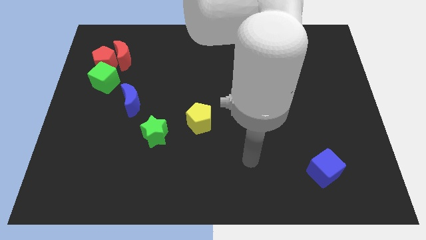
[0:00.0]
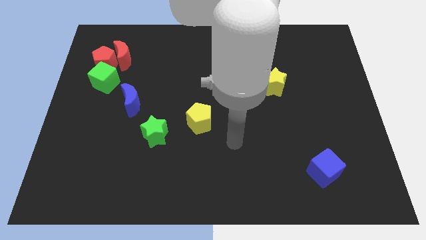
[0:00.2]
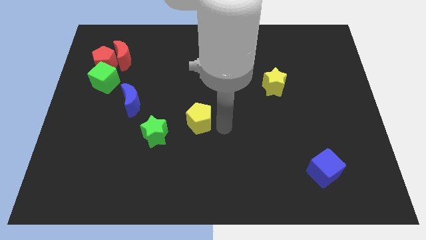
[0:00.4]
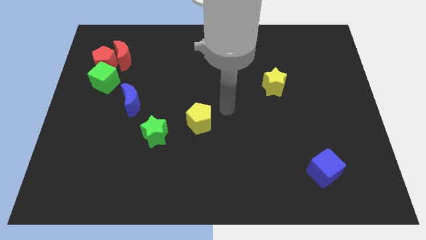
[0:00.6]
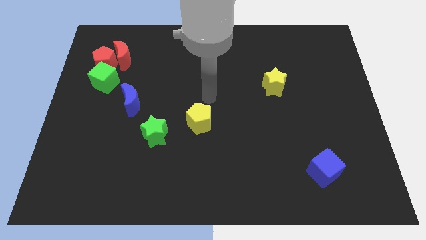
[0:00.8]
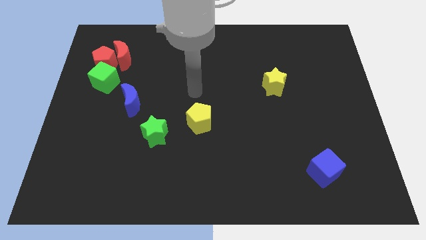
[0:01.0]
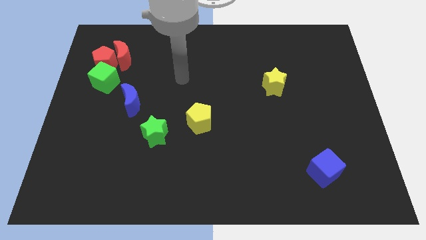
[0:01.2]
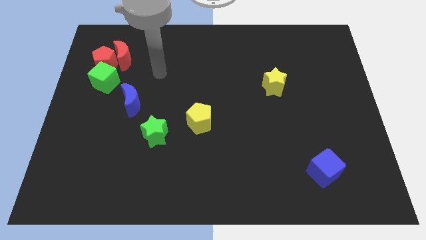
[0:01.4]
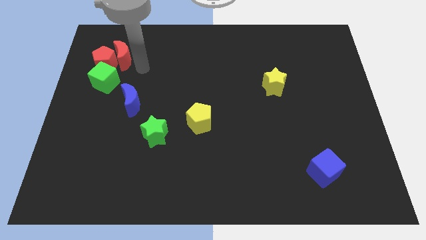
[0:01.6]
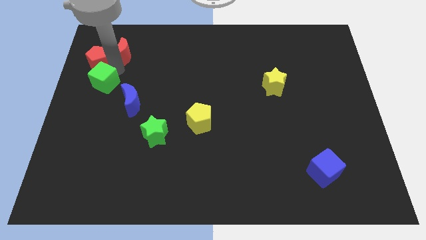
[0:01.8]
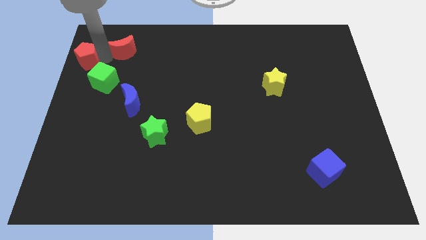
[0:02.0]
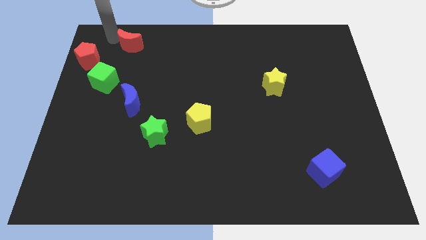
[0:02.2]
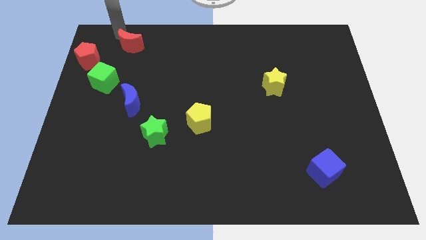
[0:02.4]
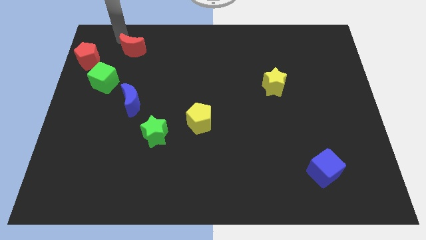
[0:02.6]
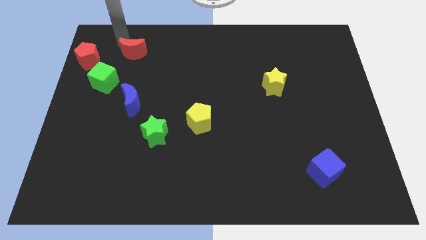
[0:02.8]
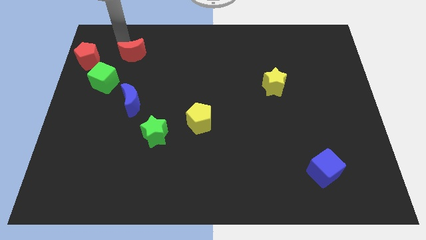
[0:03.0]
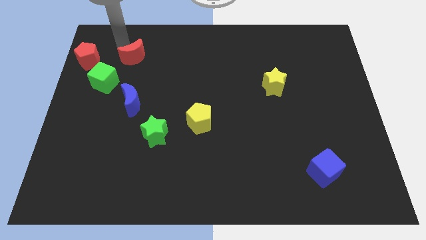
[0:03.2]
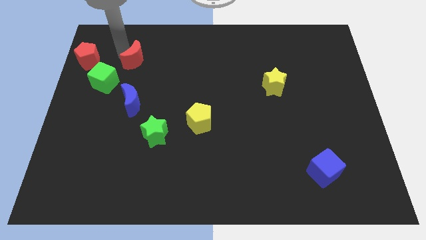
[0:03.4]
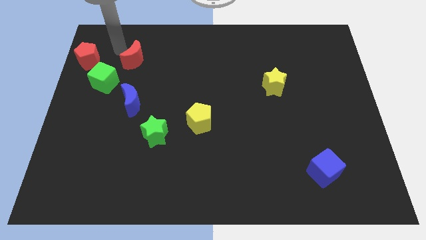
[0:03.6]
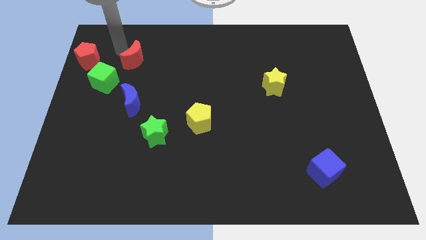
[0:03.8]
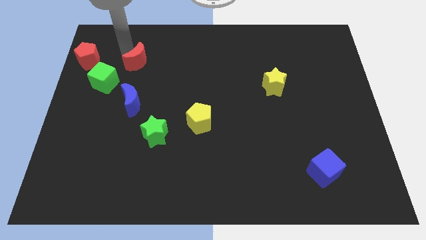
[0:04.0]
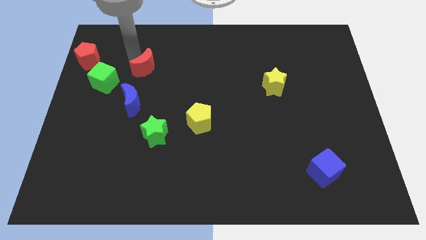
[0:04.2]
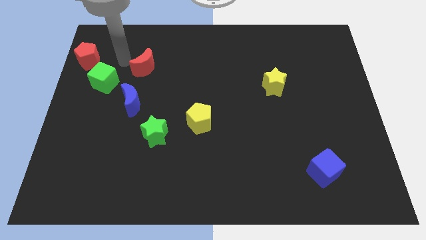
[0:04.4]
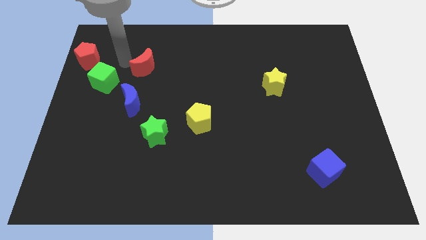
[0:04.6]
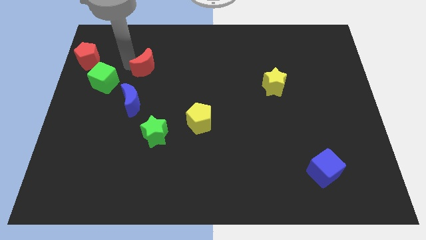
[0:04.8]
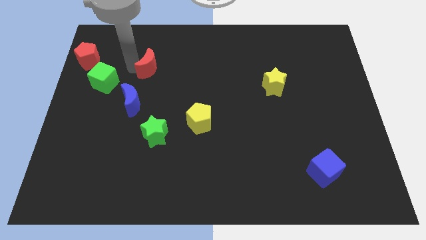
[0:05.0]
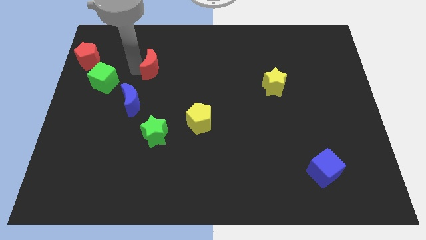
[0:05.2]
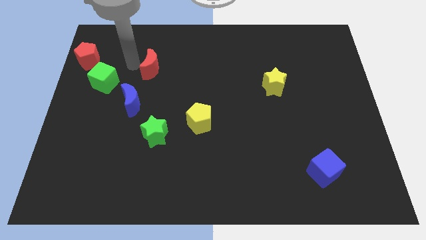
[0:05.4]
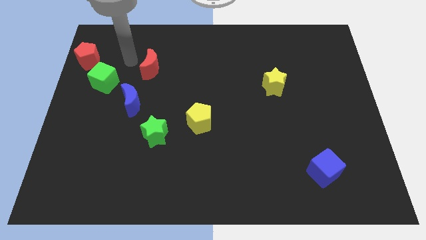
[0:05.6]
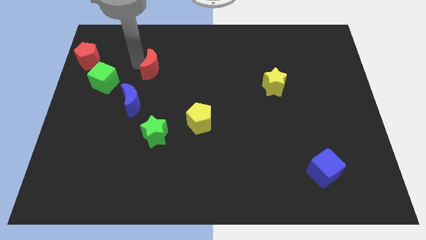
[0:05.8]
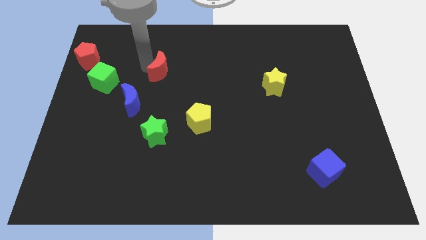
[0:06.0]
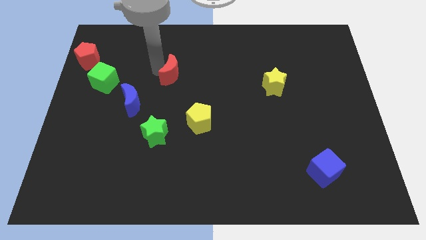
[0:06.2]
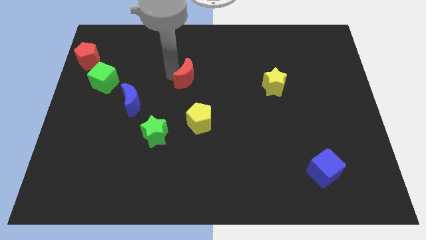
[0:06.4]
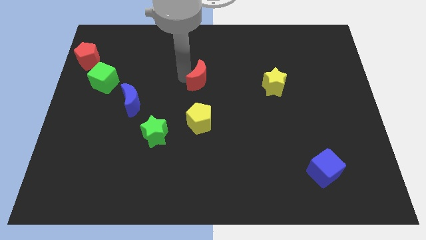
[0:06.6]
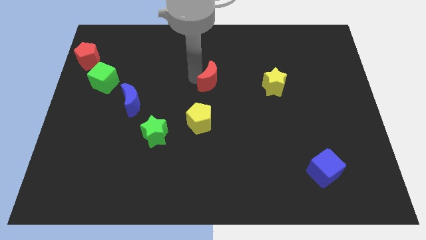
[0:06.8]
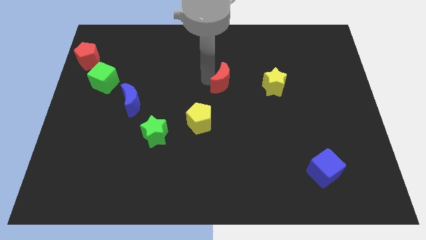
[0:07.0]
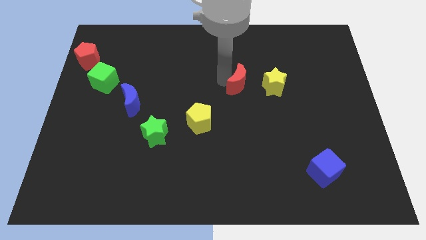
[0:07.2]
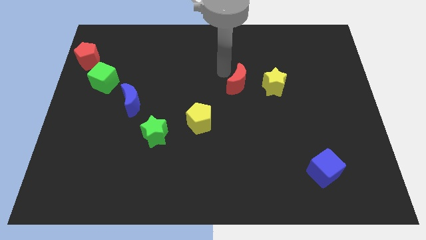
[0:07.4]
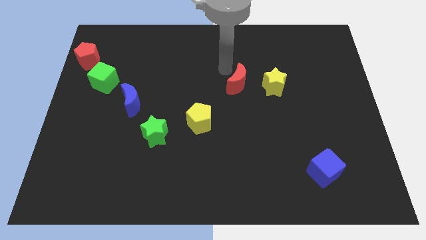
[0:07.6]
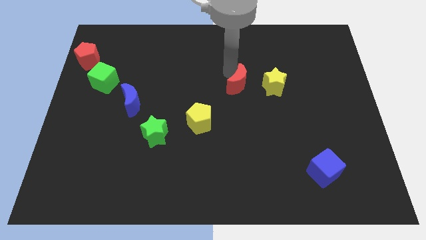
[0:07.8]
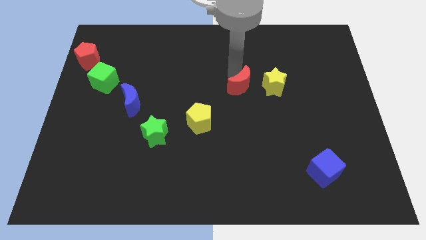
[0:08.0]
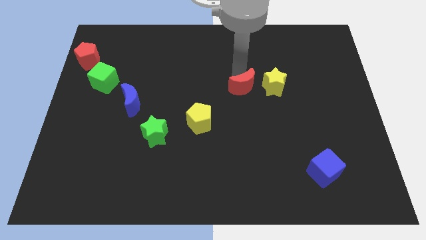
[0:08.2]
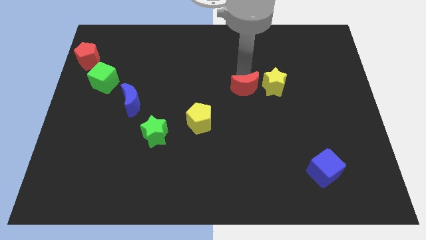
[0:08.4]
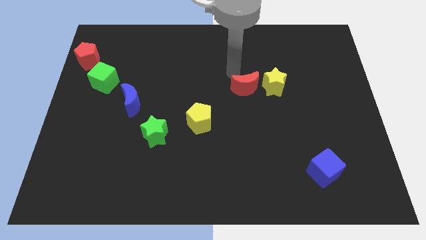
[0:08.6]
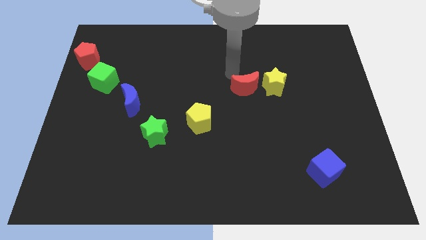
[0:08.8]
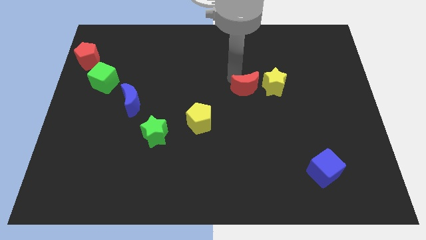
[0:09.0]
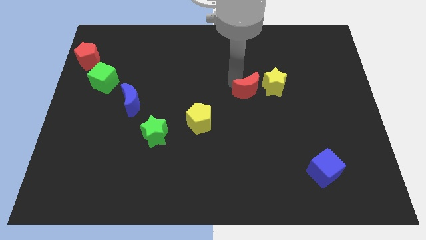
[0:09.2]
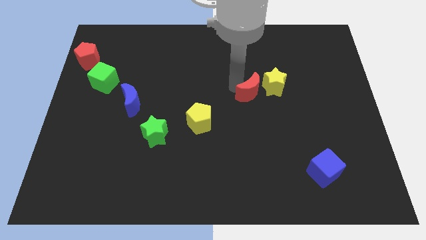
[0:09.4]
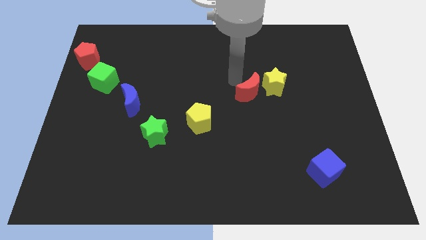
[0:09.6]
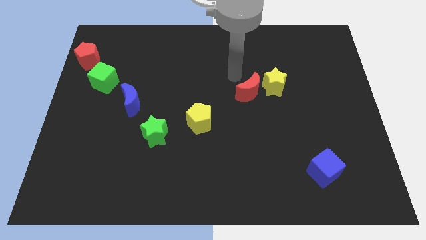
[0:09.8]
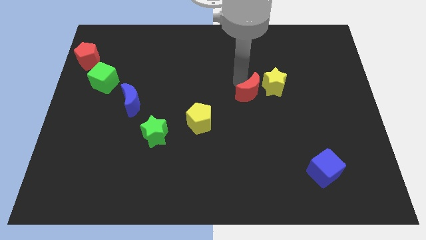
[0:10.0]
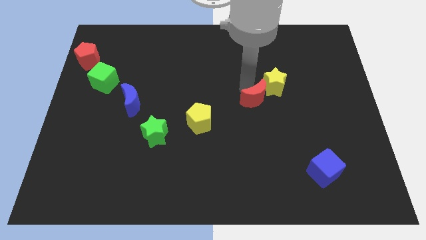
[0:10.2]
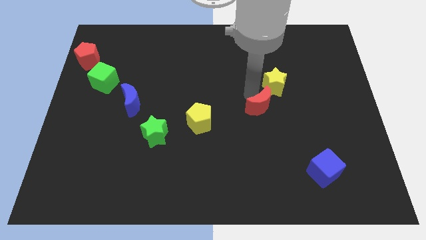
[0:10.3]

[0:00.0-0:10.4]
push the red moon below the yellow star

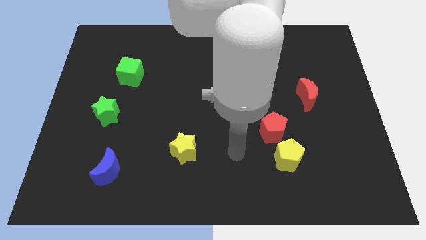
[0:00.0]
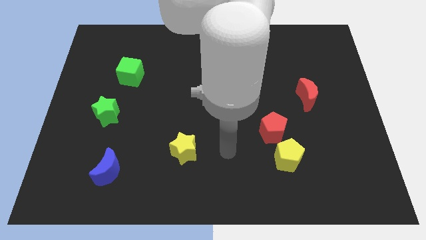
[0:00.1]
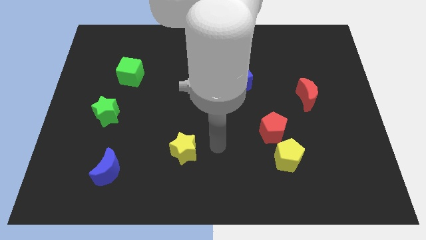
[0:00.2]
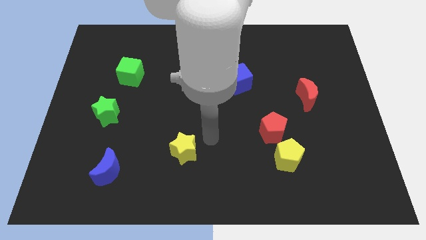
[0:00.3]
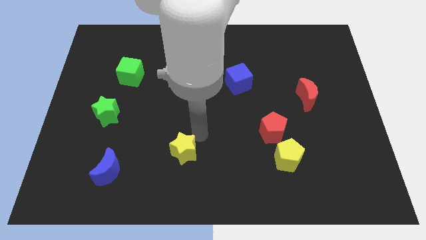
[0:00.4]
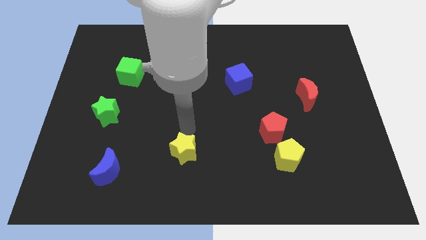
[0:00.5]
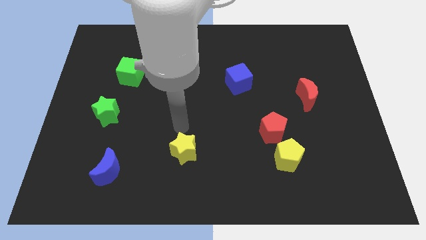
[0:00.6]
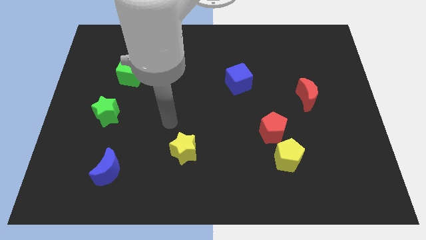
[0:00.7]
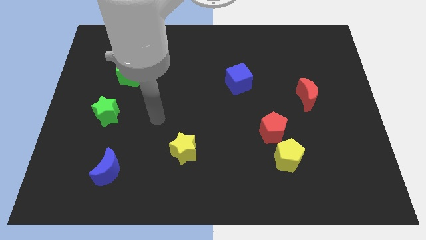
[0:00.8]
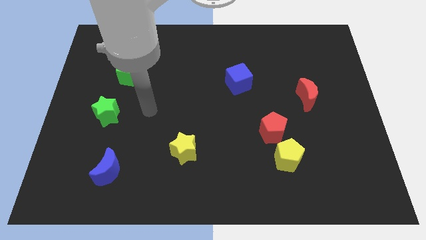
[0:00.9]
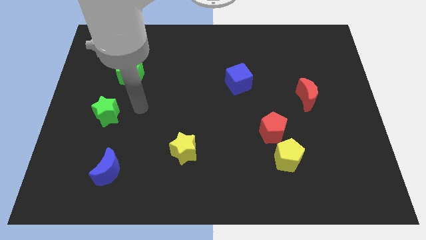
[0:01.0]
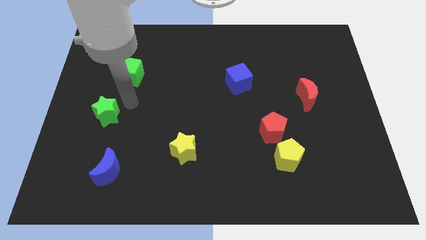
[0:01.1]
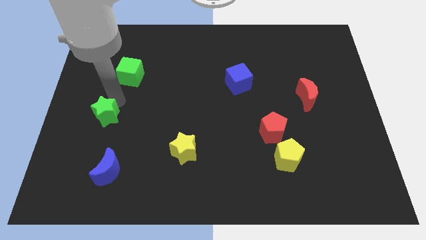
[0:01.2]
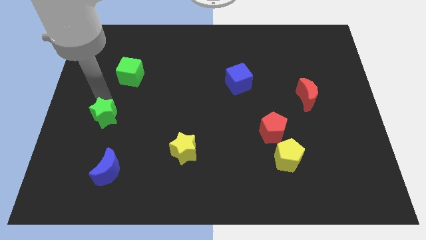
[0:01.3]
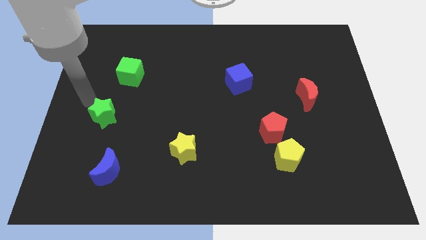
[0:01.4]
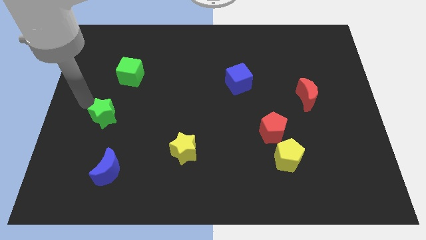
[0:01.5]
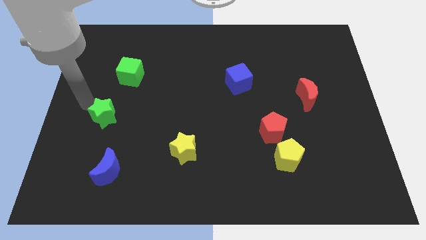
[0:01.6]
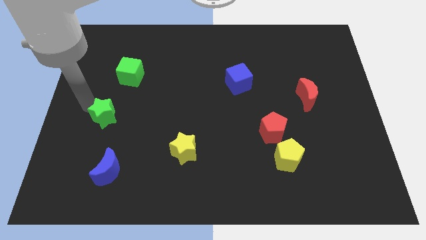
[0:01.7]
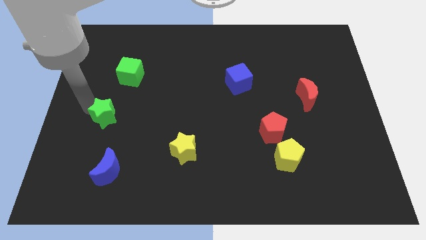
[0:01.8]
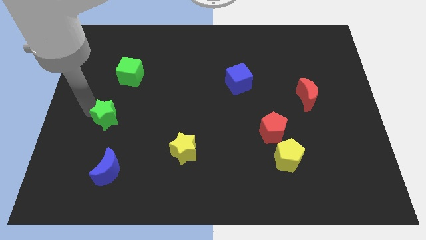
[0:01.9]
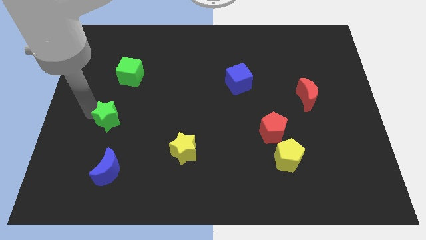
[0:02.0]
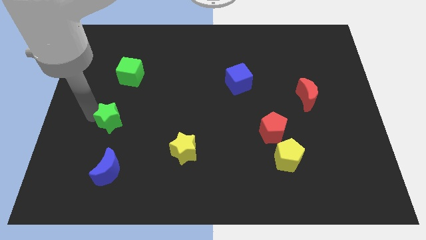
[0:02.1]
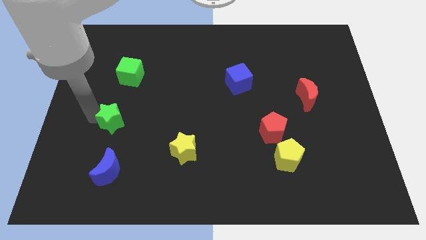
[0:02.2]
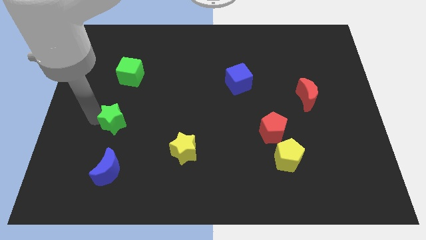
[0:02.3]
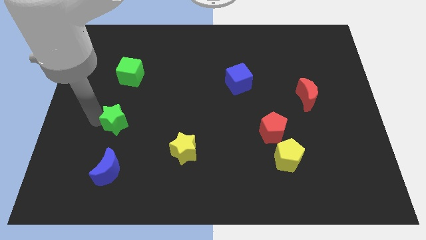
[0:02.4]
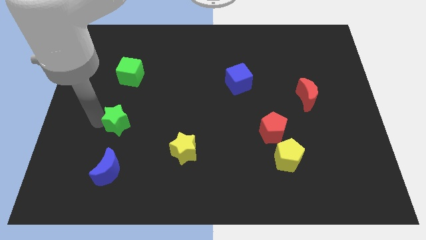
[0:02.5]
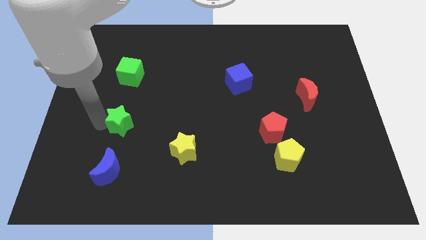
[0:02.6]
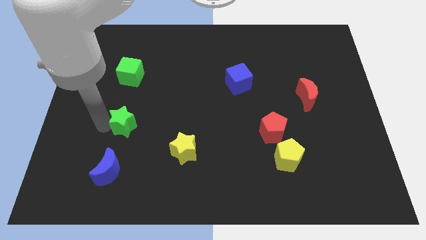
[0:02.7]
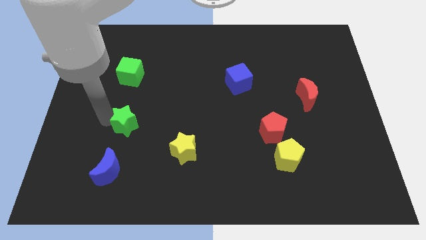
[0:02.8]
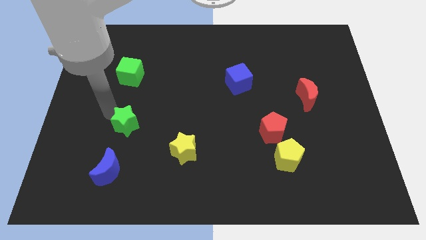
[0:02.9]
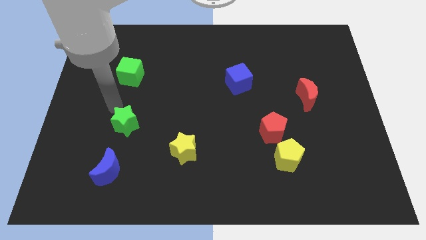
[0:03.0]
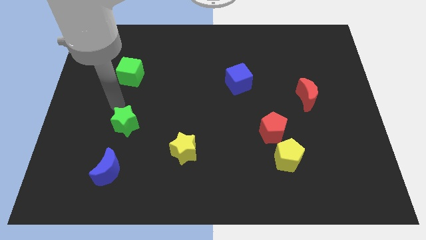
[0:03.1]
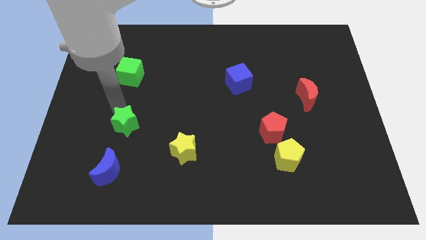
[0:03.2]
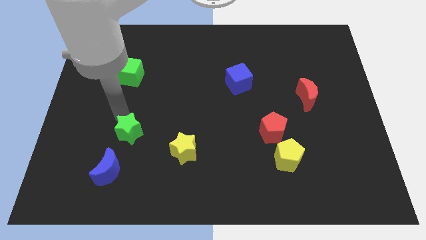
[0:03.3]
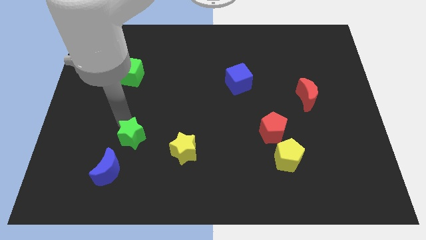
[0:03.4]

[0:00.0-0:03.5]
move the green star just left of the yellow star
